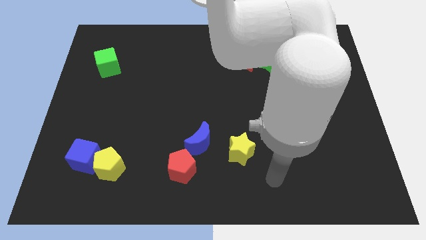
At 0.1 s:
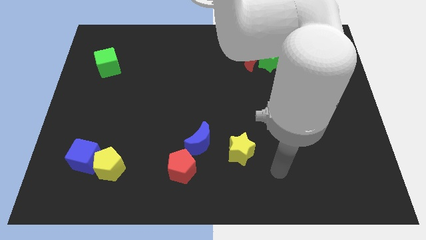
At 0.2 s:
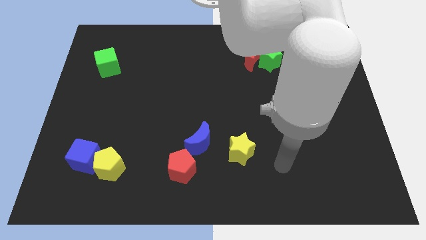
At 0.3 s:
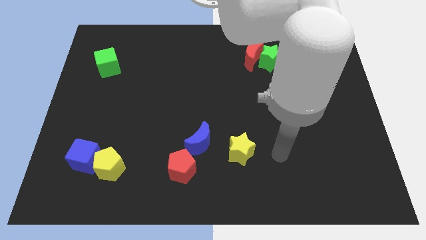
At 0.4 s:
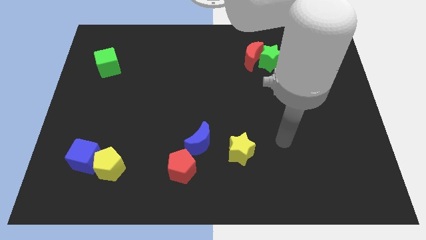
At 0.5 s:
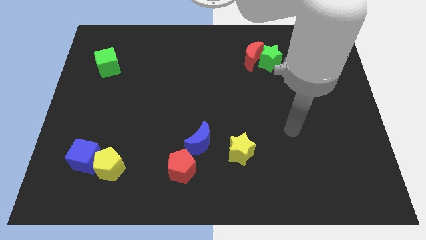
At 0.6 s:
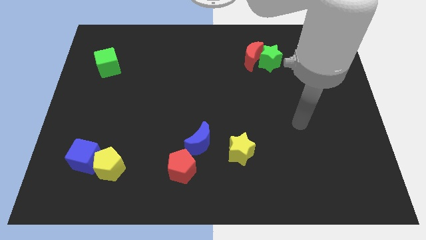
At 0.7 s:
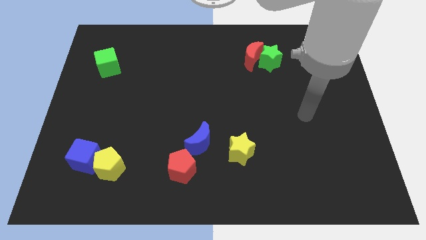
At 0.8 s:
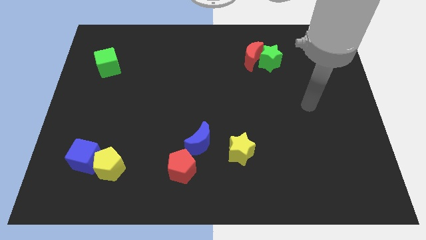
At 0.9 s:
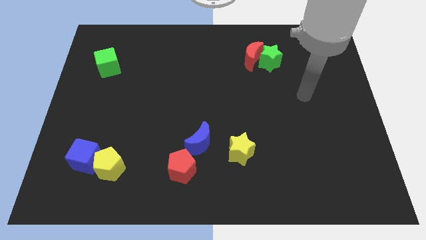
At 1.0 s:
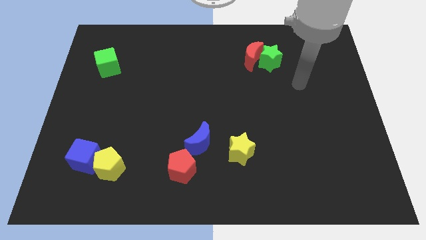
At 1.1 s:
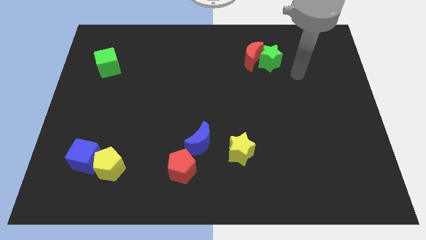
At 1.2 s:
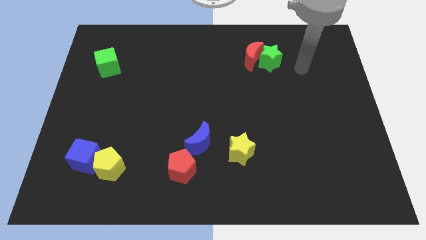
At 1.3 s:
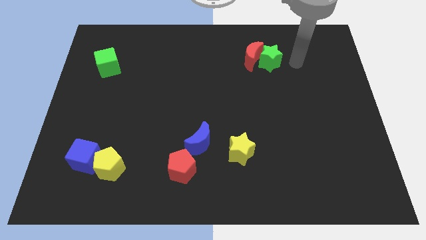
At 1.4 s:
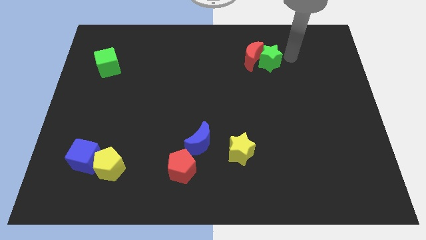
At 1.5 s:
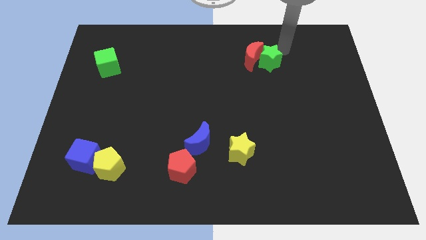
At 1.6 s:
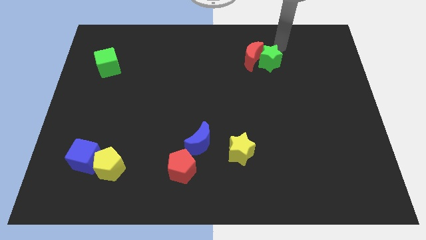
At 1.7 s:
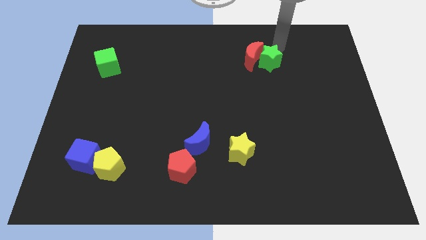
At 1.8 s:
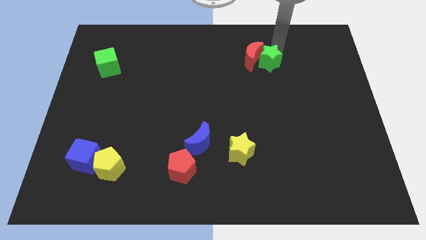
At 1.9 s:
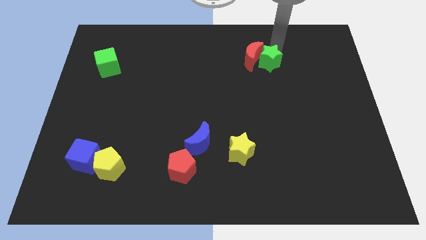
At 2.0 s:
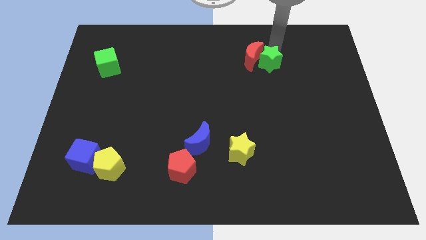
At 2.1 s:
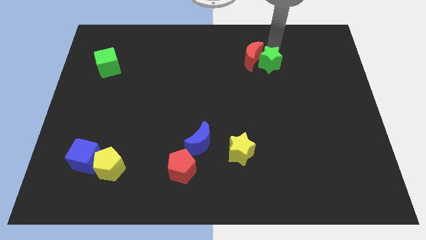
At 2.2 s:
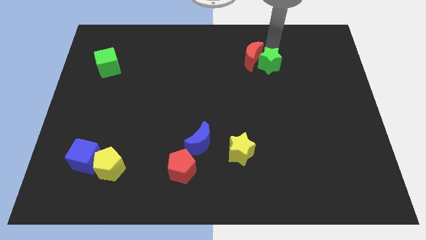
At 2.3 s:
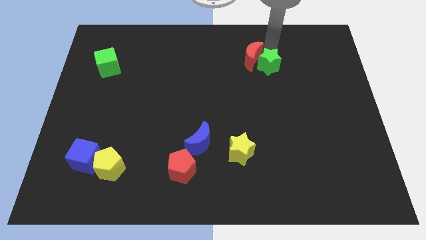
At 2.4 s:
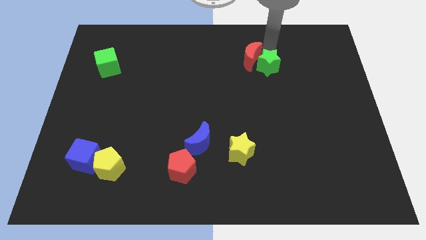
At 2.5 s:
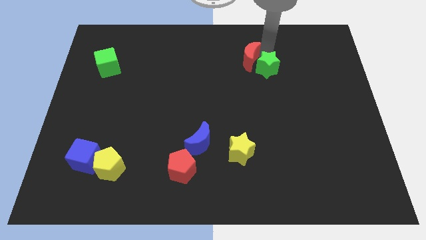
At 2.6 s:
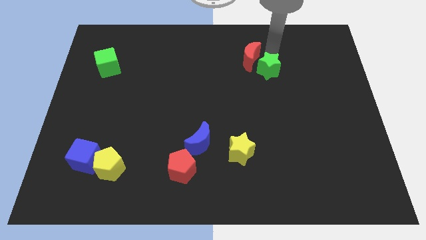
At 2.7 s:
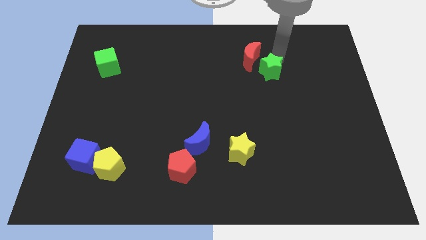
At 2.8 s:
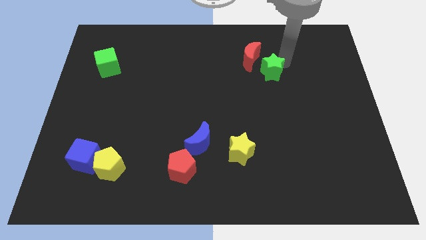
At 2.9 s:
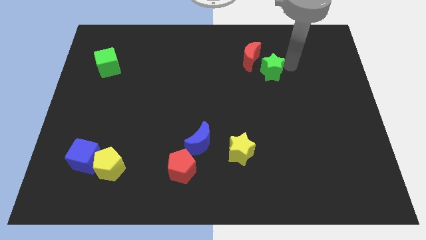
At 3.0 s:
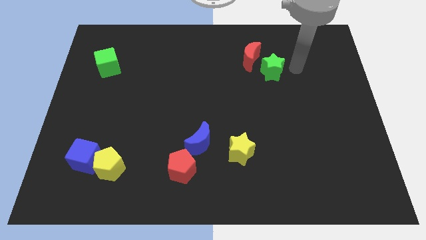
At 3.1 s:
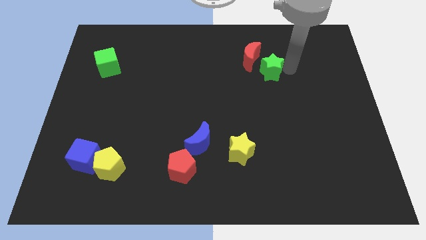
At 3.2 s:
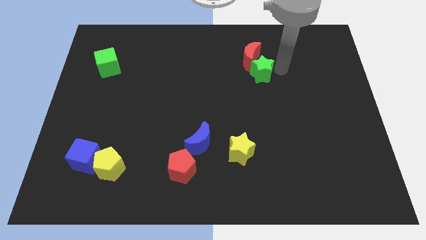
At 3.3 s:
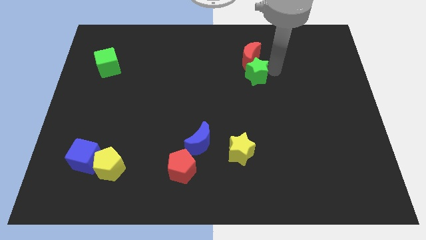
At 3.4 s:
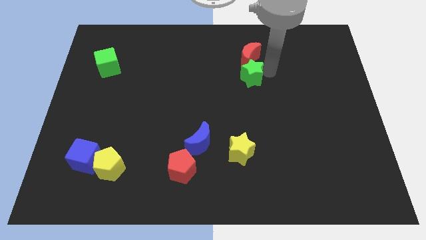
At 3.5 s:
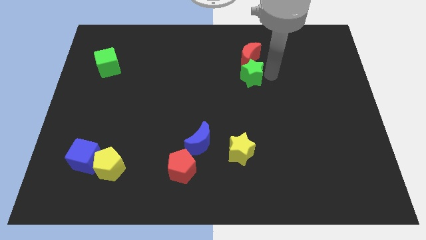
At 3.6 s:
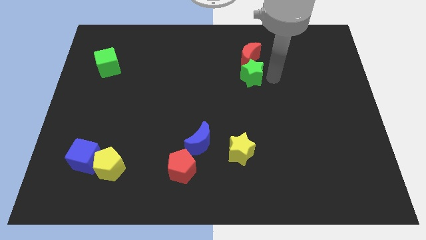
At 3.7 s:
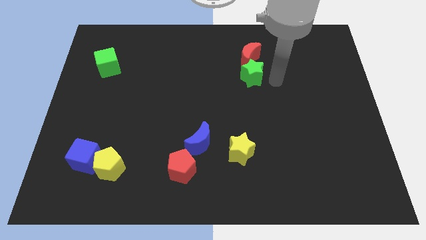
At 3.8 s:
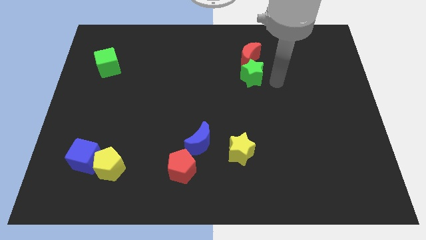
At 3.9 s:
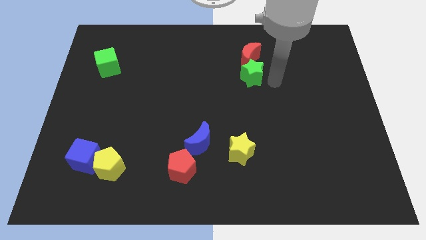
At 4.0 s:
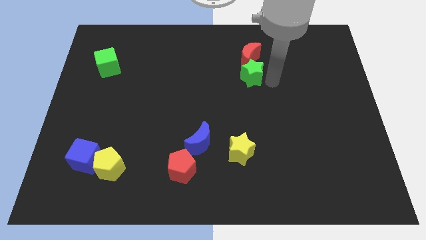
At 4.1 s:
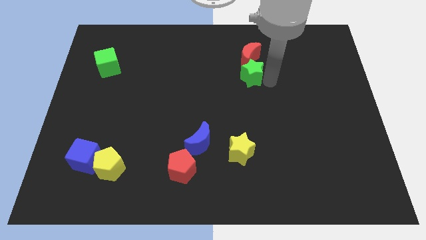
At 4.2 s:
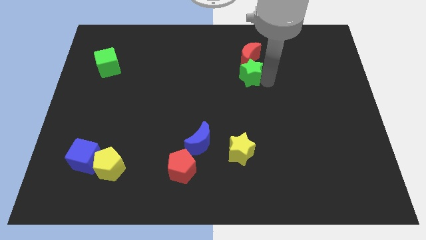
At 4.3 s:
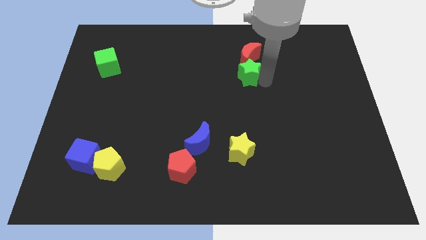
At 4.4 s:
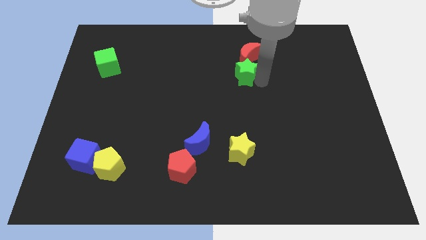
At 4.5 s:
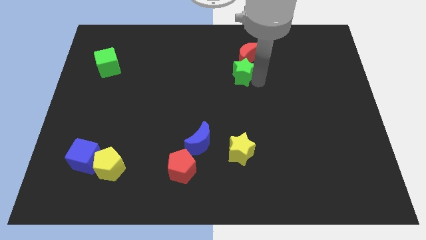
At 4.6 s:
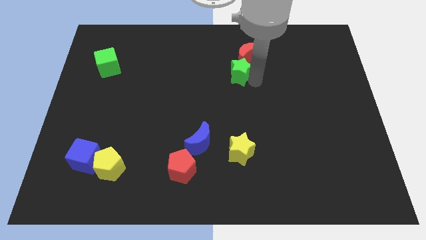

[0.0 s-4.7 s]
slightly slide the green star to the left

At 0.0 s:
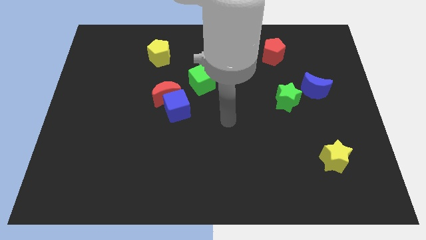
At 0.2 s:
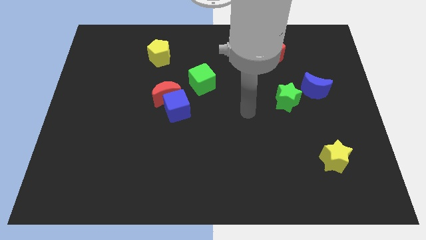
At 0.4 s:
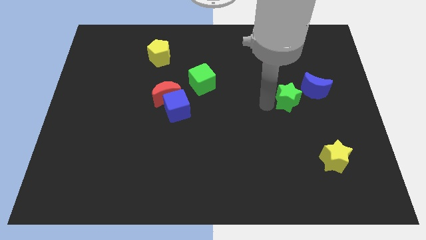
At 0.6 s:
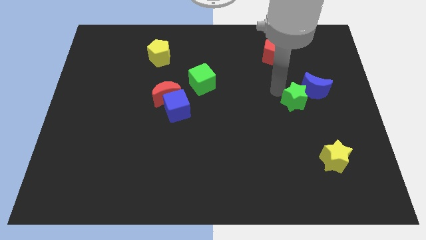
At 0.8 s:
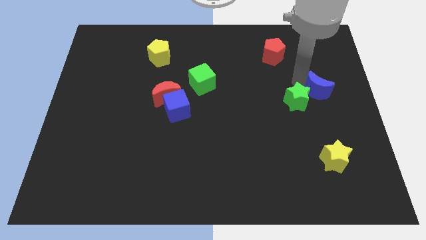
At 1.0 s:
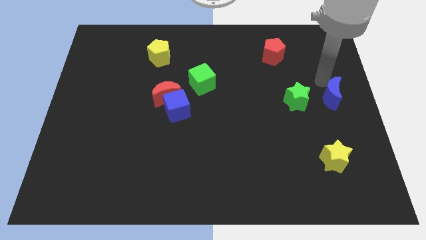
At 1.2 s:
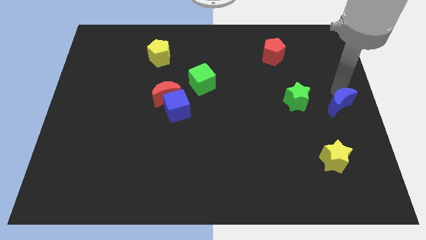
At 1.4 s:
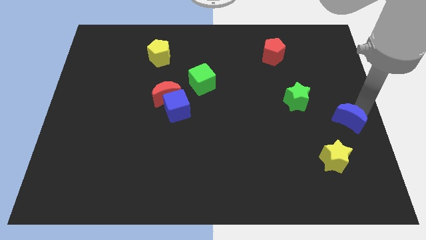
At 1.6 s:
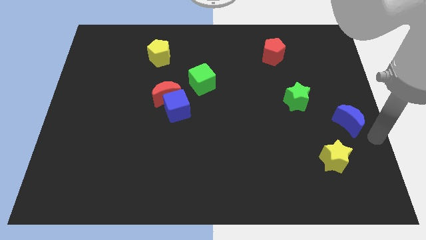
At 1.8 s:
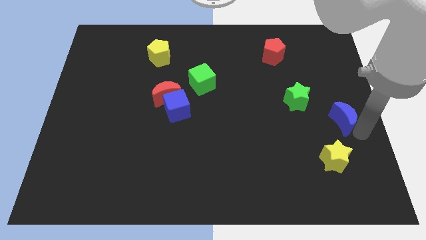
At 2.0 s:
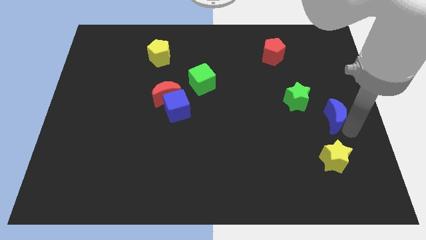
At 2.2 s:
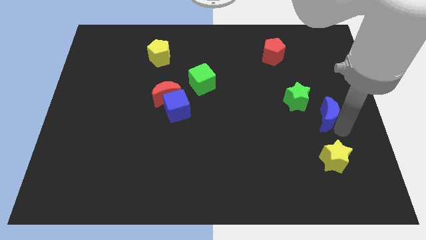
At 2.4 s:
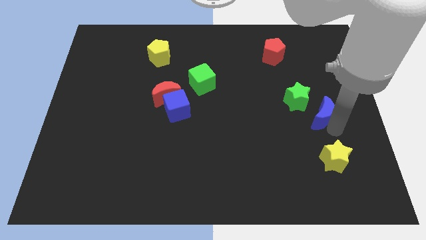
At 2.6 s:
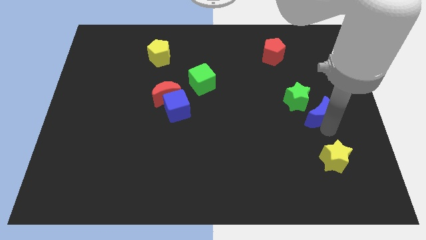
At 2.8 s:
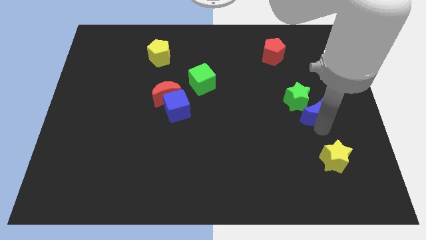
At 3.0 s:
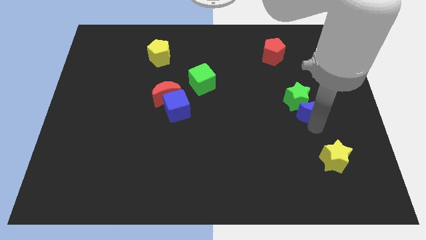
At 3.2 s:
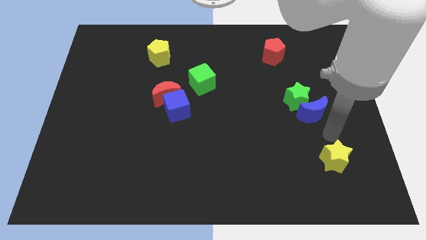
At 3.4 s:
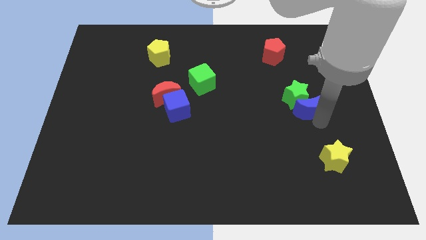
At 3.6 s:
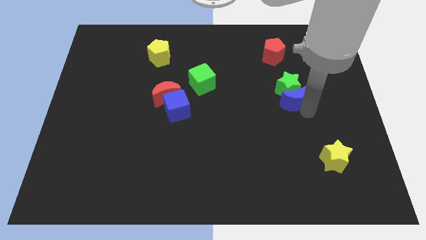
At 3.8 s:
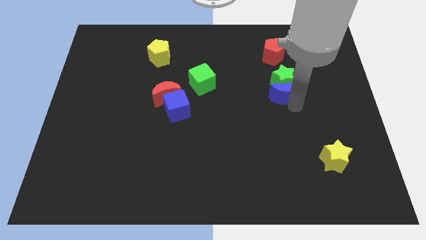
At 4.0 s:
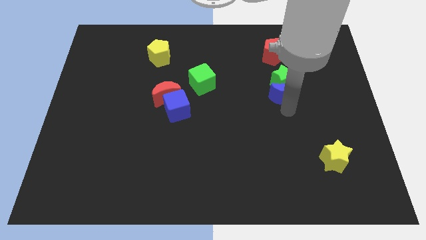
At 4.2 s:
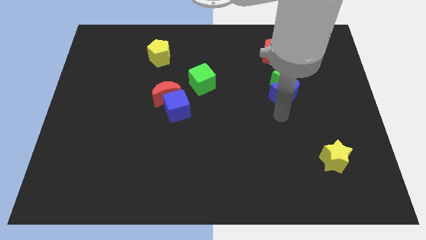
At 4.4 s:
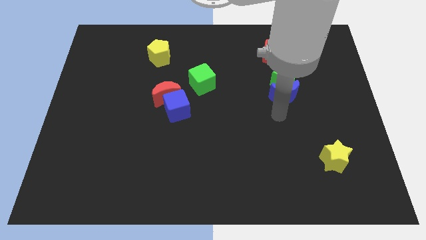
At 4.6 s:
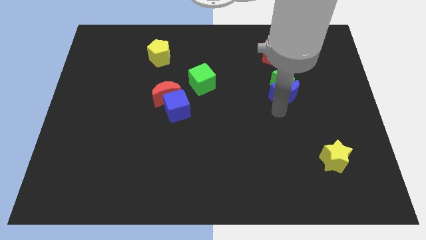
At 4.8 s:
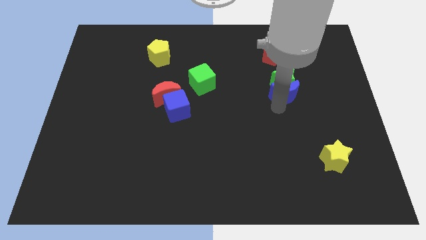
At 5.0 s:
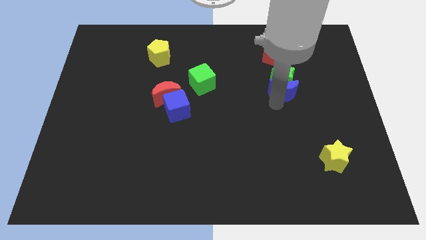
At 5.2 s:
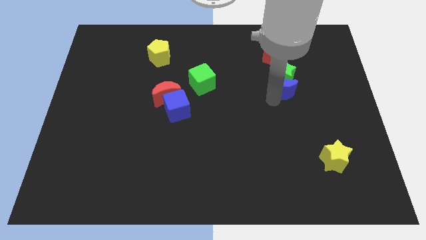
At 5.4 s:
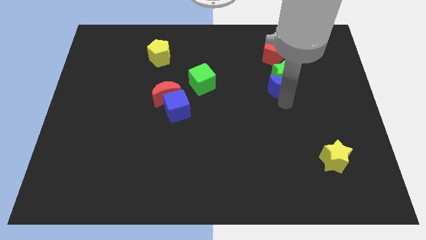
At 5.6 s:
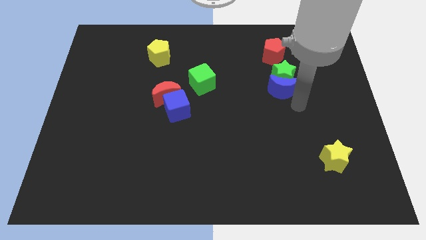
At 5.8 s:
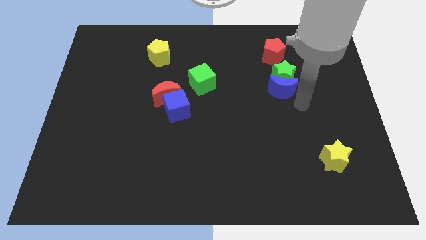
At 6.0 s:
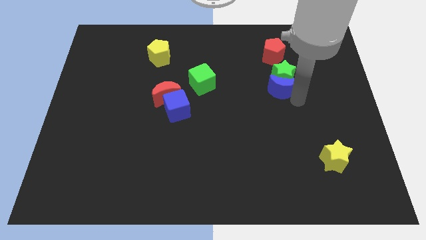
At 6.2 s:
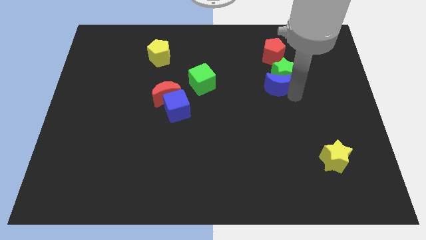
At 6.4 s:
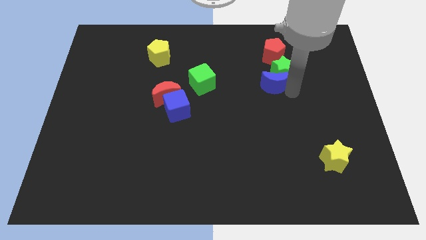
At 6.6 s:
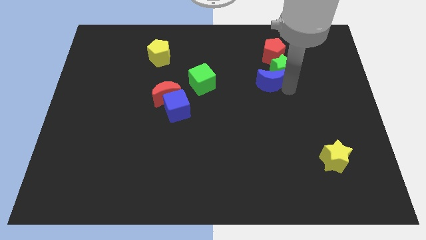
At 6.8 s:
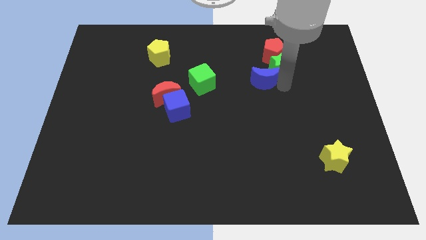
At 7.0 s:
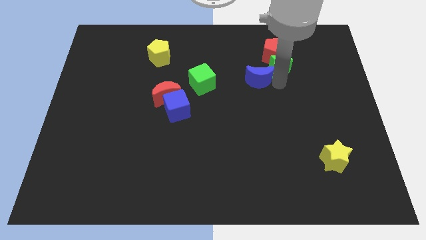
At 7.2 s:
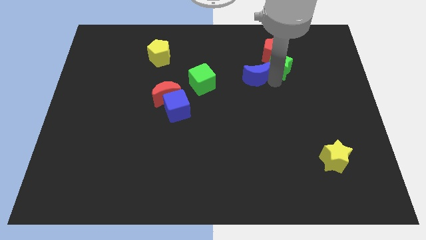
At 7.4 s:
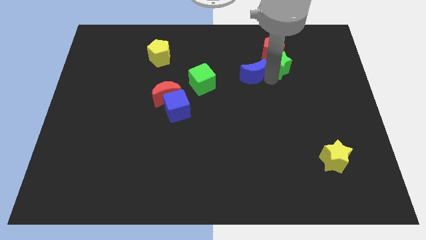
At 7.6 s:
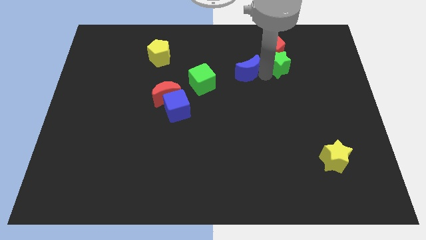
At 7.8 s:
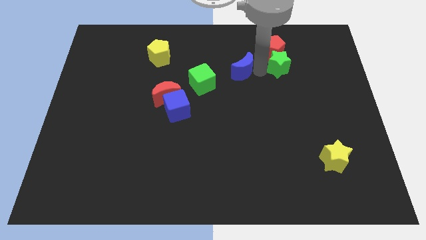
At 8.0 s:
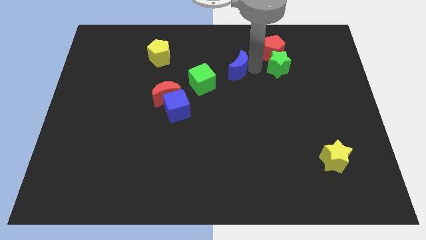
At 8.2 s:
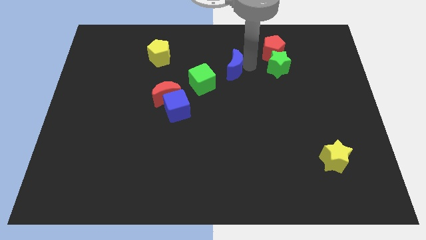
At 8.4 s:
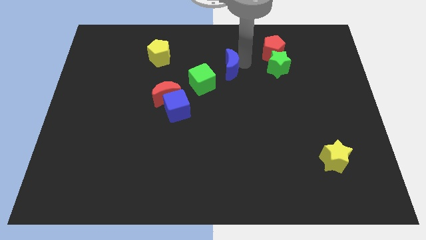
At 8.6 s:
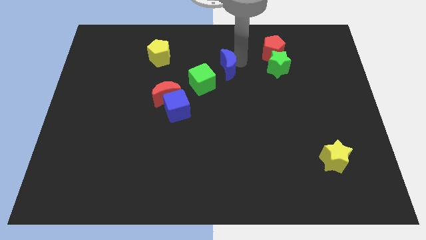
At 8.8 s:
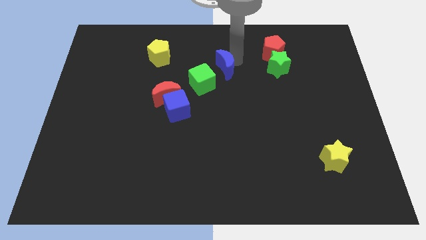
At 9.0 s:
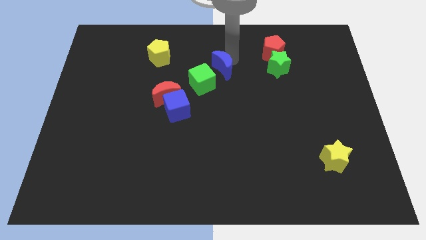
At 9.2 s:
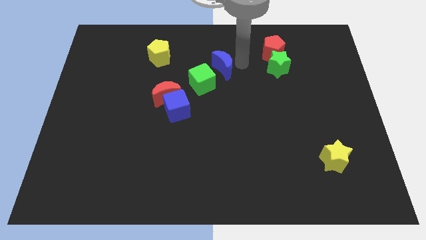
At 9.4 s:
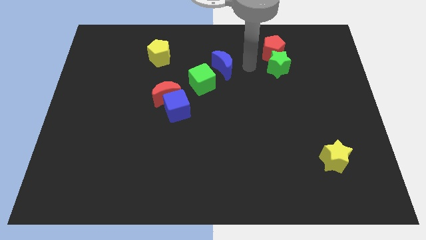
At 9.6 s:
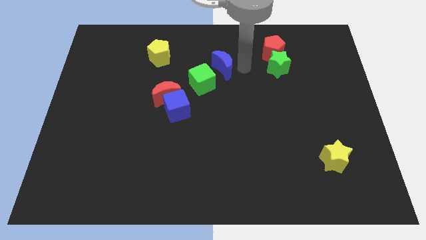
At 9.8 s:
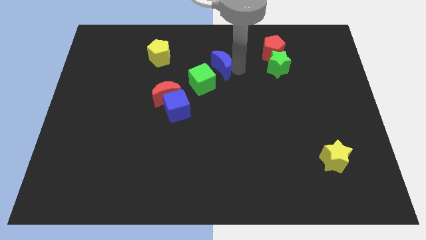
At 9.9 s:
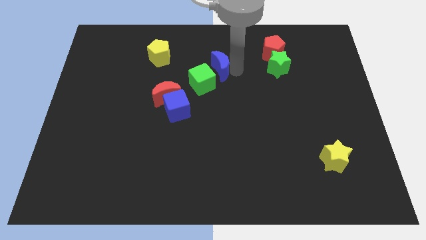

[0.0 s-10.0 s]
push the blue moon to the left
